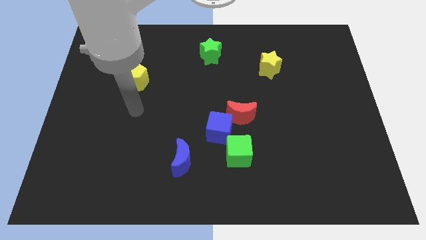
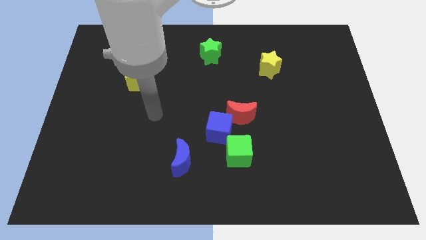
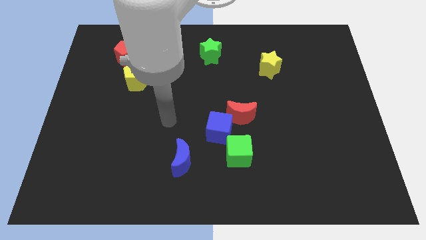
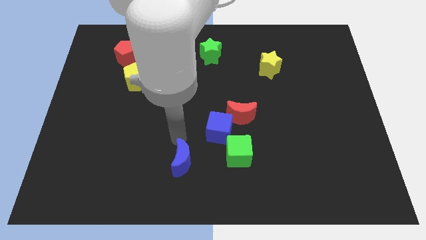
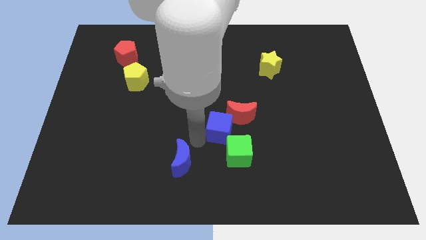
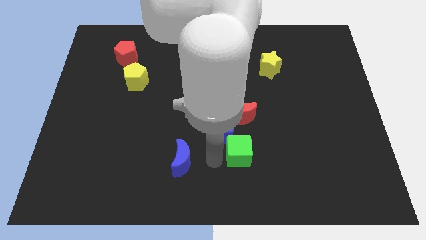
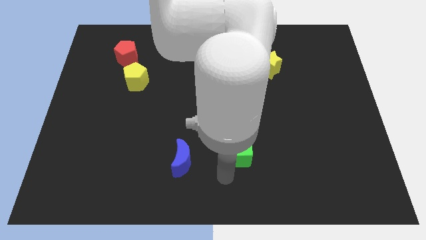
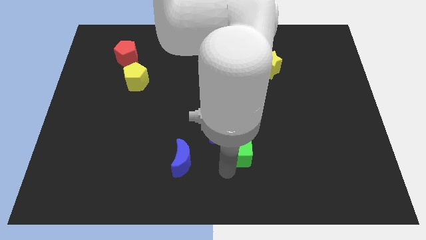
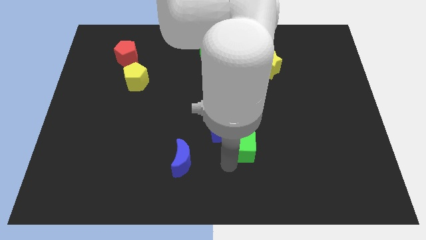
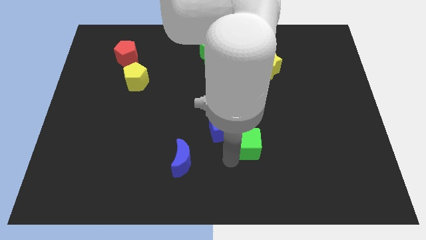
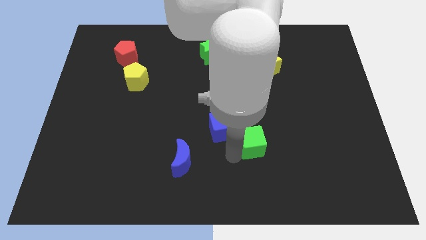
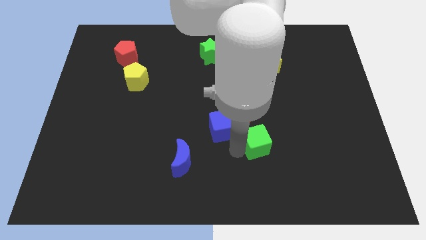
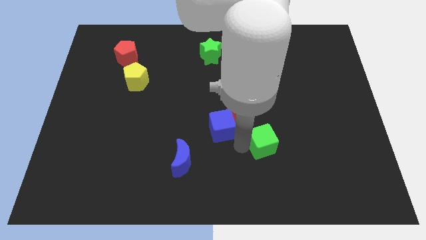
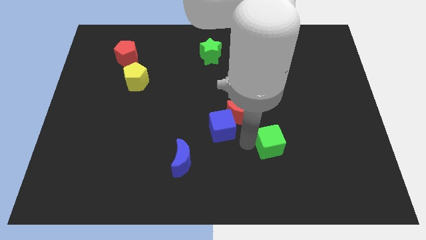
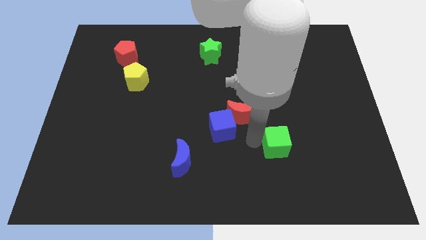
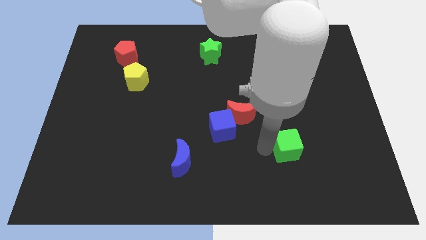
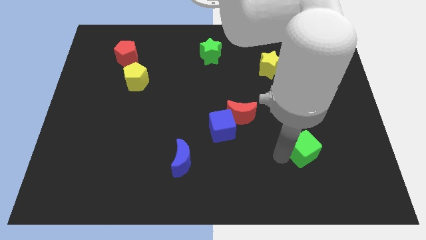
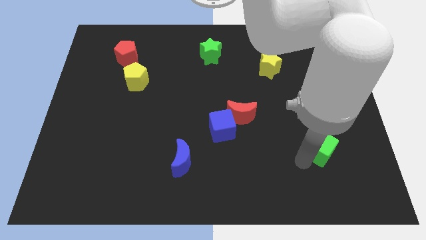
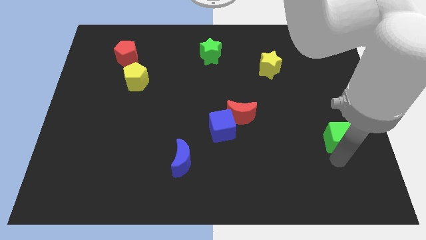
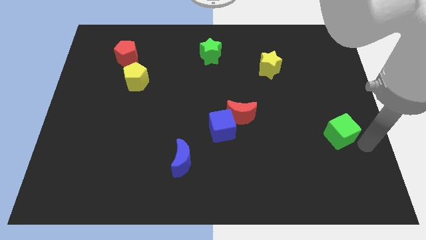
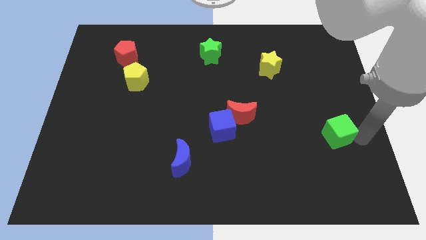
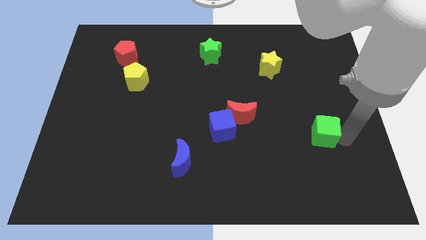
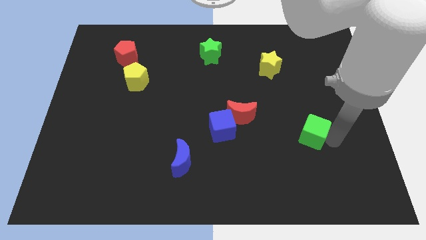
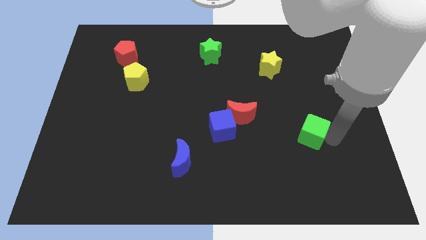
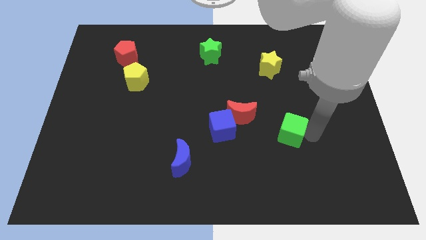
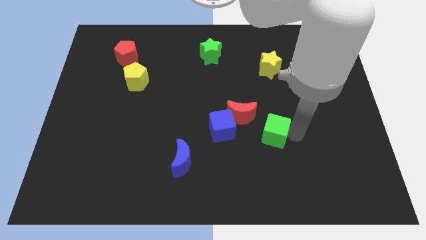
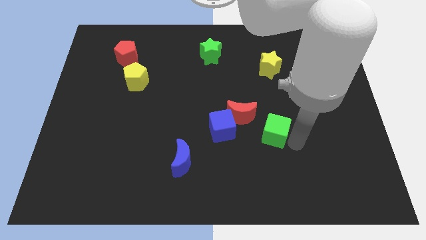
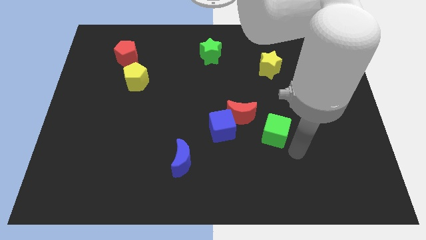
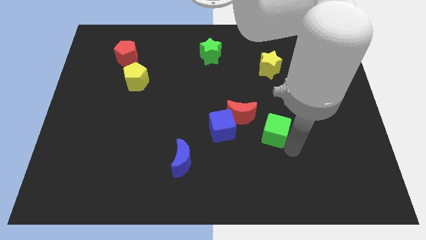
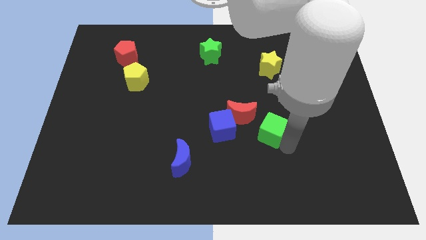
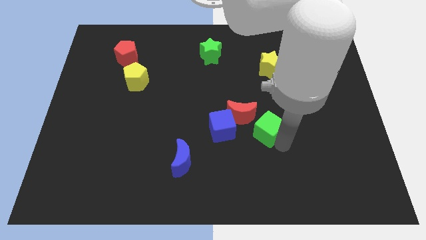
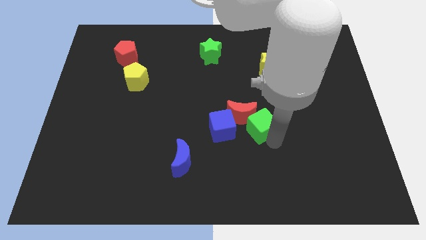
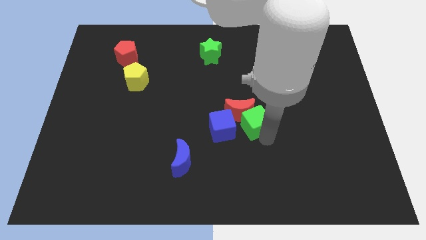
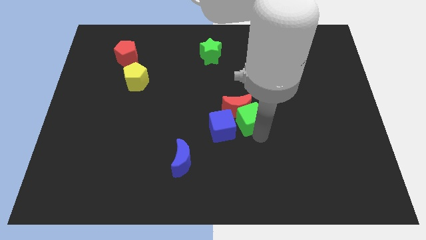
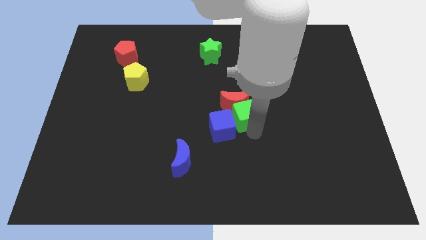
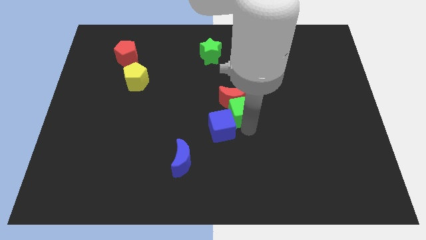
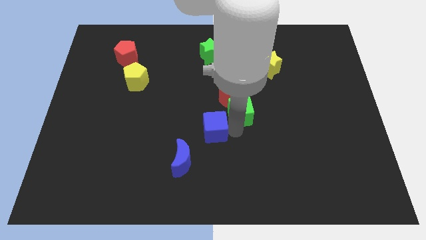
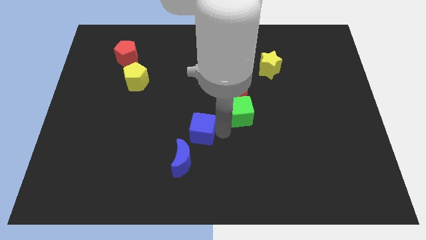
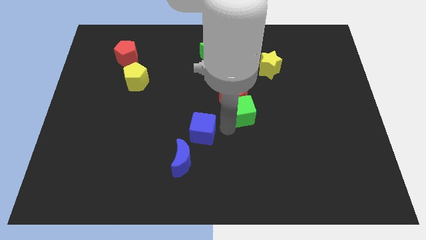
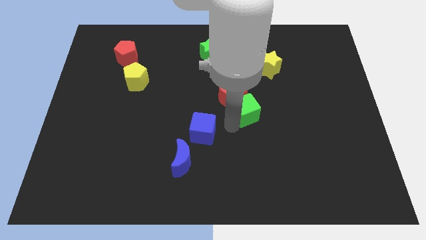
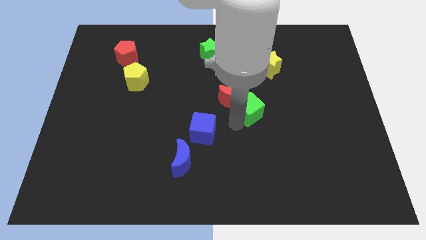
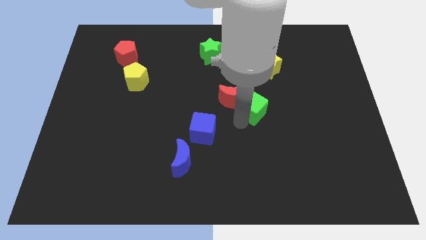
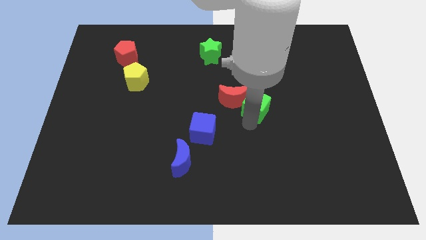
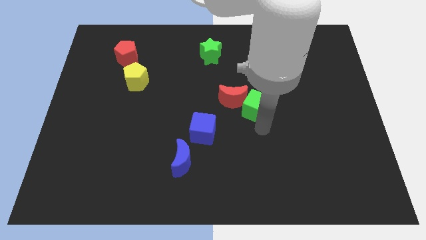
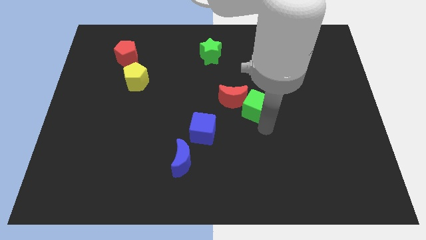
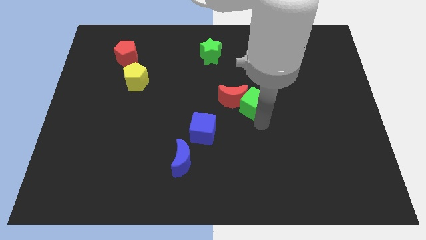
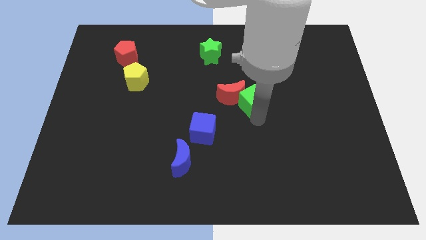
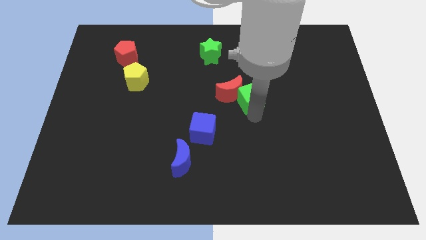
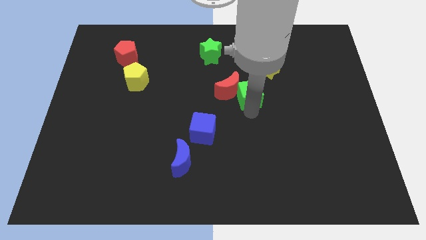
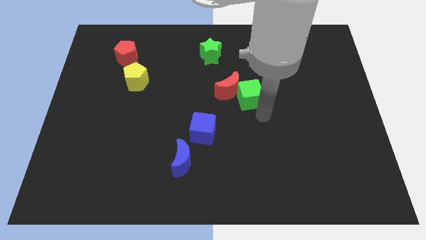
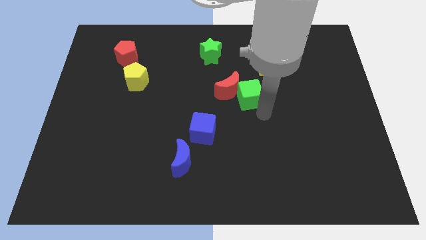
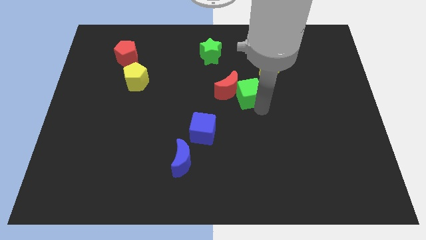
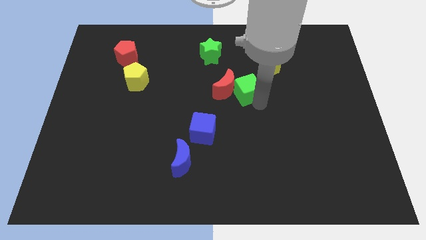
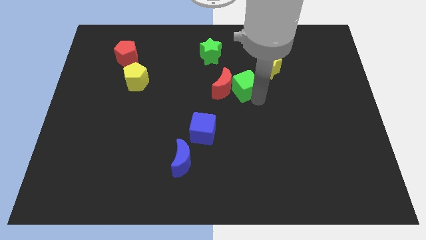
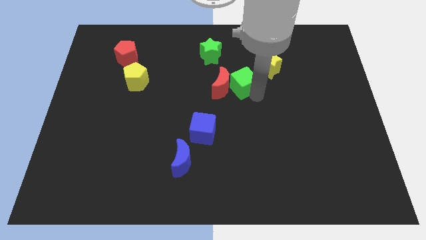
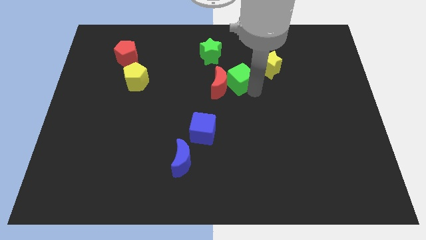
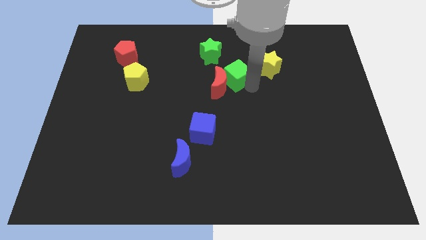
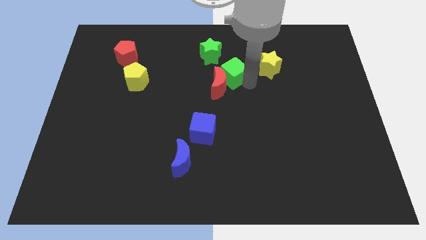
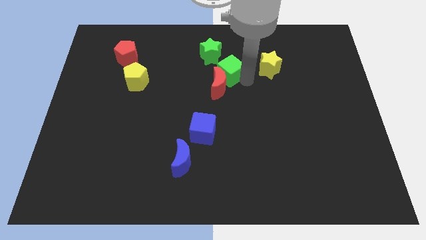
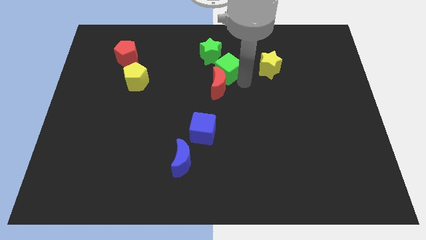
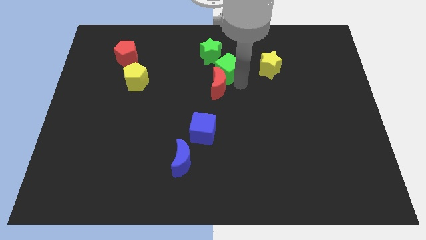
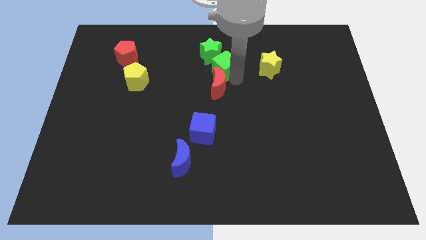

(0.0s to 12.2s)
push the green cube towards the green star

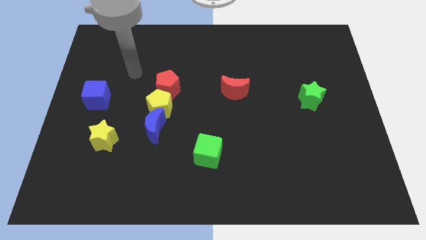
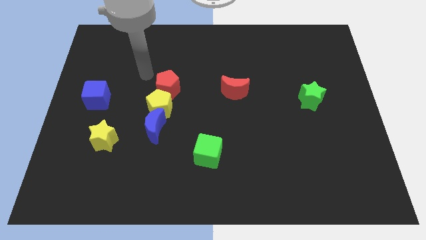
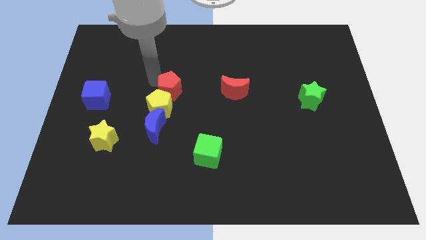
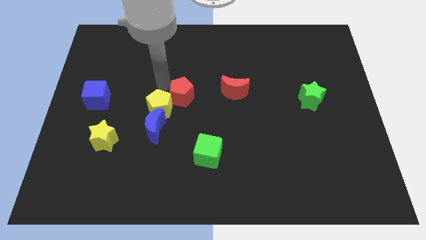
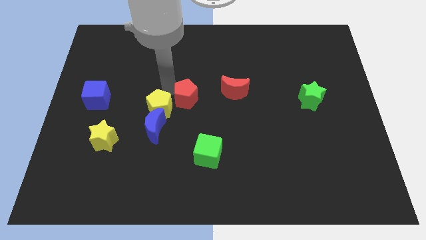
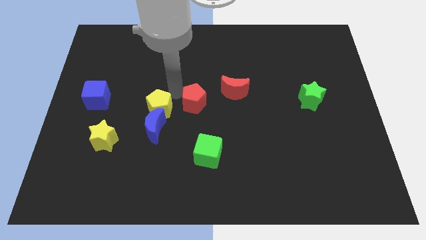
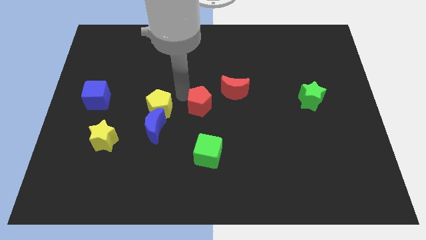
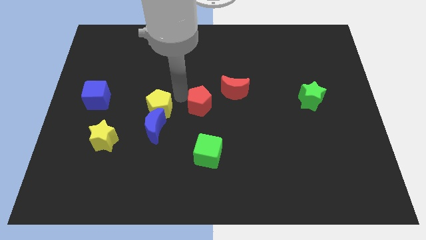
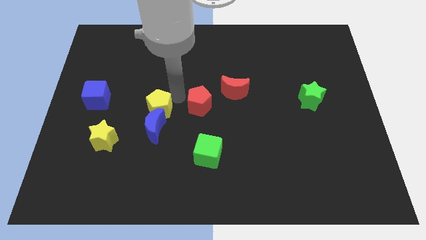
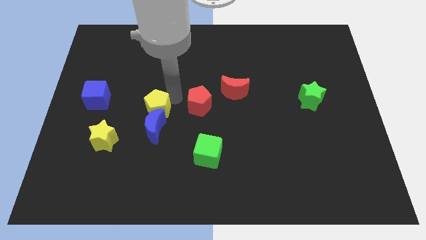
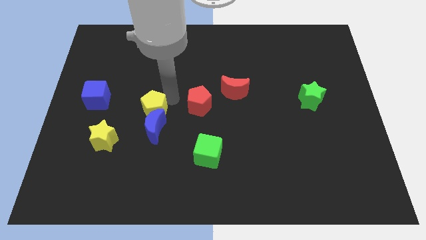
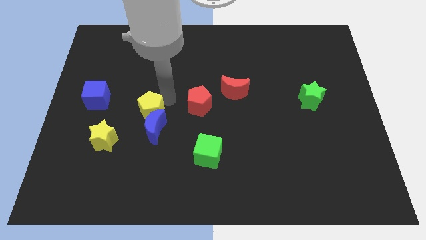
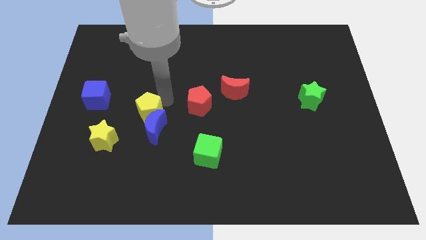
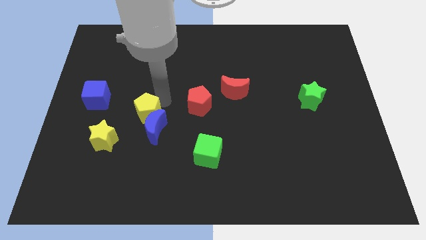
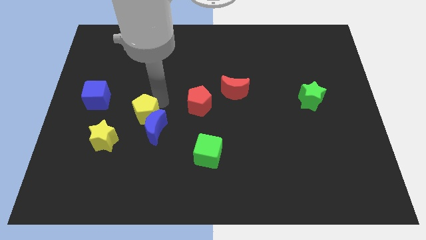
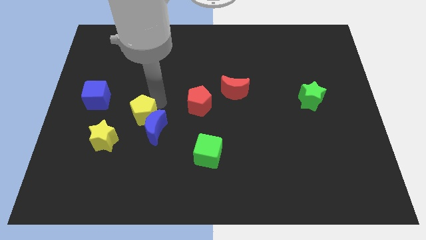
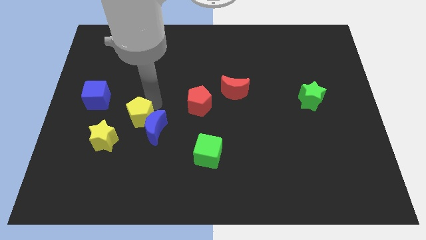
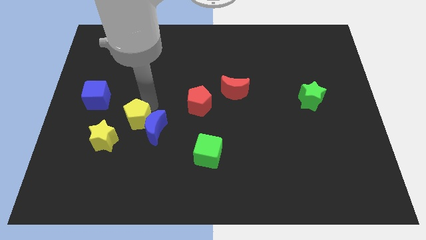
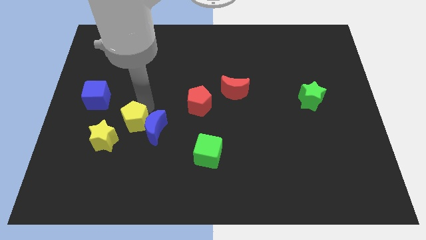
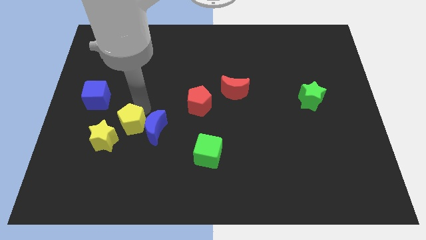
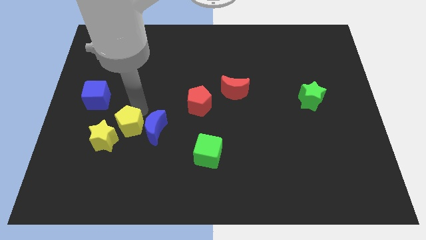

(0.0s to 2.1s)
move the yellow pentagon towards the yellow star
